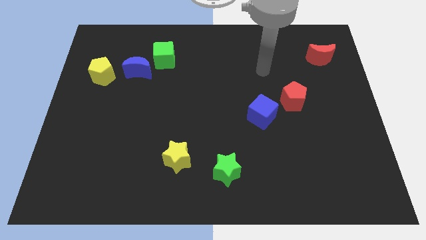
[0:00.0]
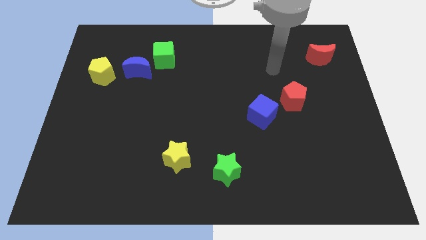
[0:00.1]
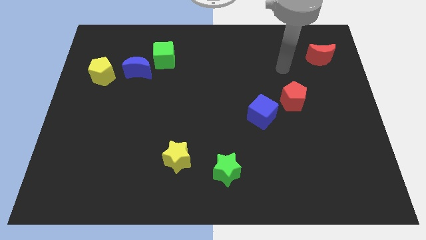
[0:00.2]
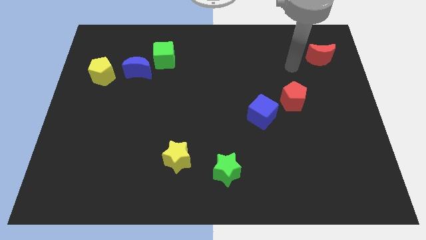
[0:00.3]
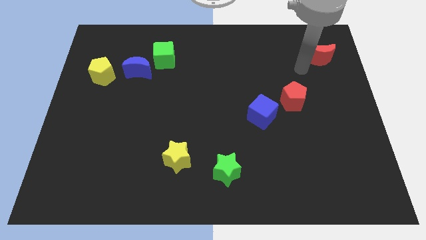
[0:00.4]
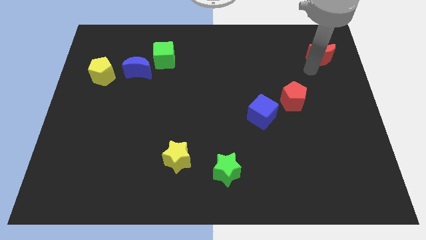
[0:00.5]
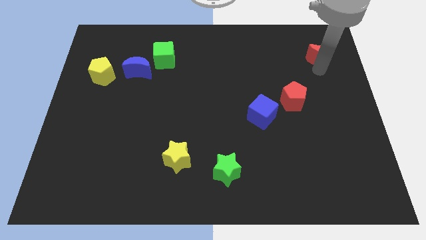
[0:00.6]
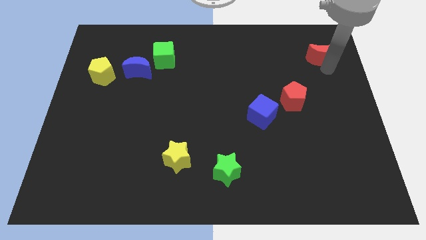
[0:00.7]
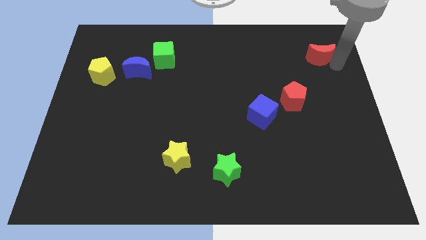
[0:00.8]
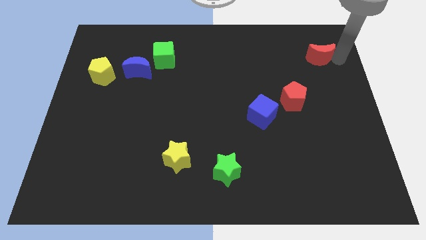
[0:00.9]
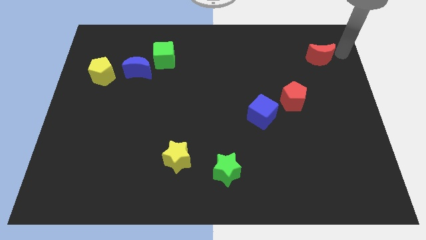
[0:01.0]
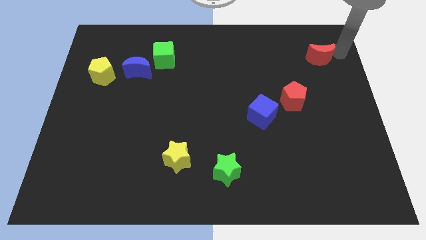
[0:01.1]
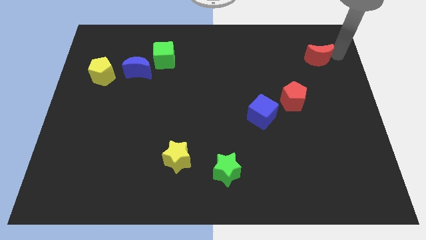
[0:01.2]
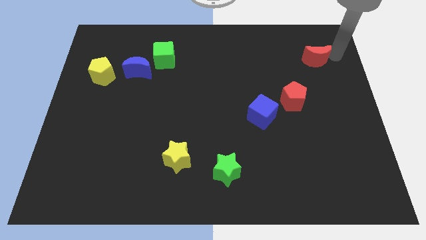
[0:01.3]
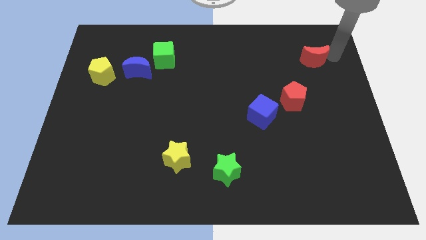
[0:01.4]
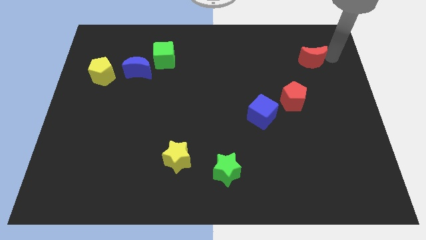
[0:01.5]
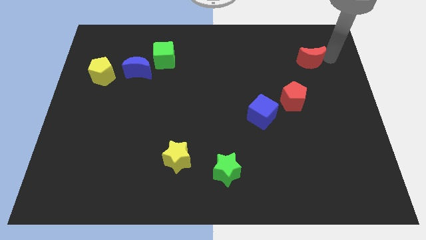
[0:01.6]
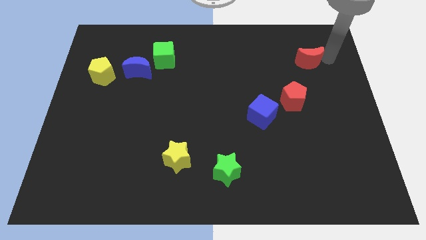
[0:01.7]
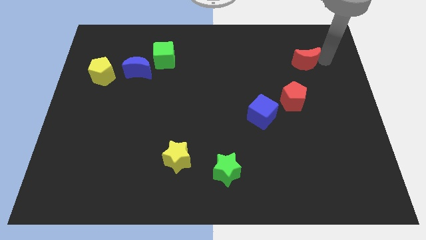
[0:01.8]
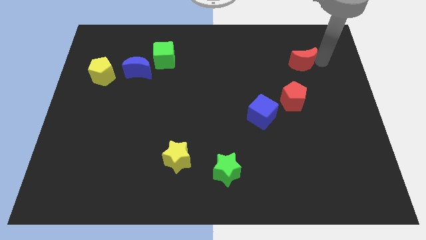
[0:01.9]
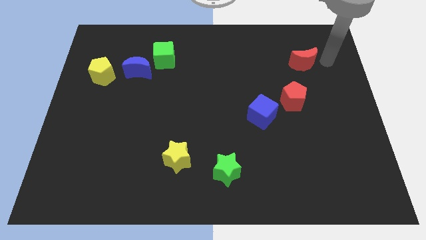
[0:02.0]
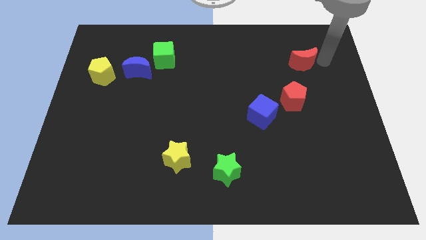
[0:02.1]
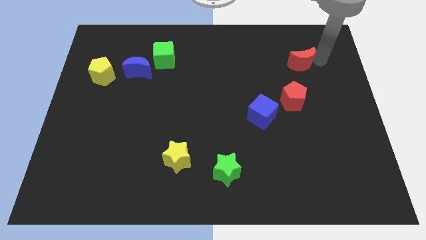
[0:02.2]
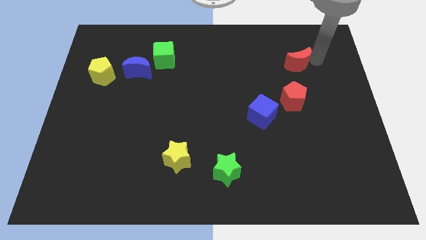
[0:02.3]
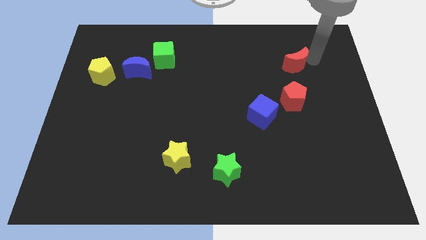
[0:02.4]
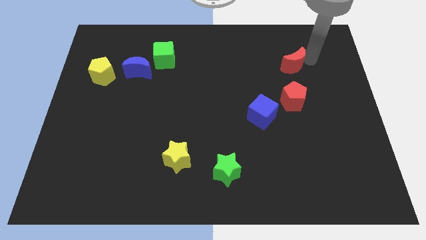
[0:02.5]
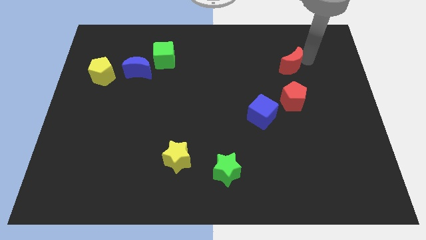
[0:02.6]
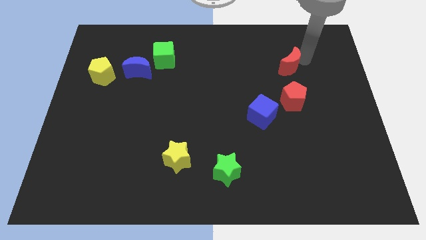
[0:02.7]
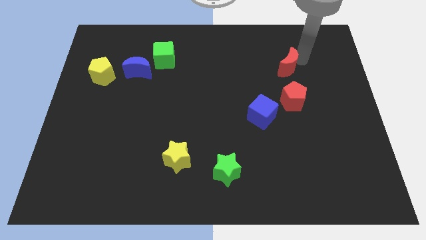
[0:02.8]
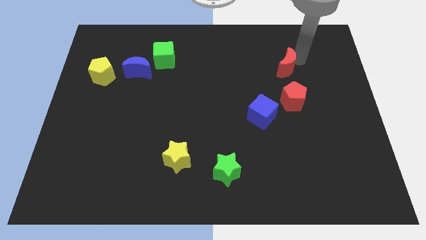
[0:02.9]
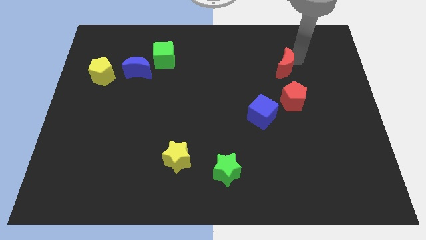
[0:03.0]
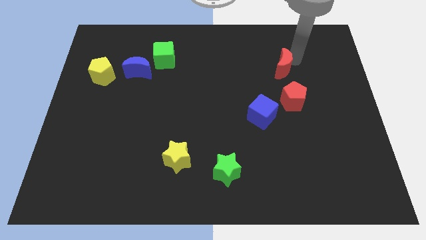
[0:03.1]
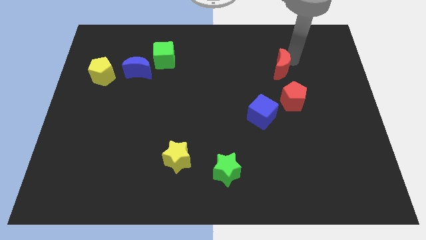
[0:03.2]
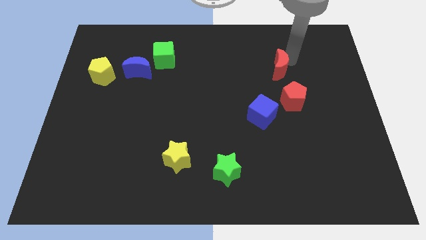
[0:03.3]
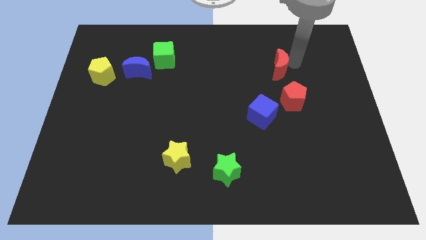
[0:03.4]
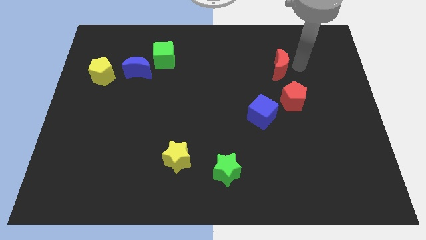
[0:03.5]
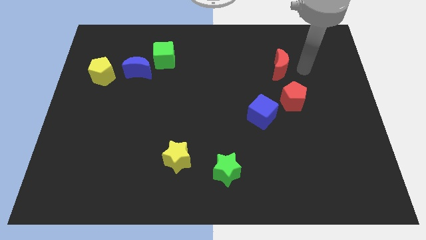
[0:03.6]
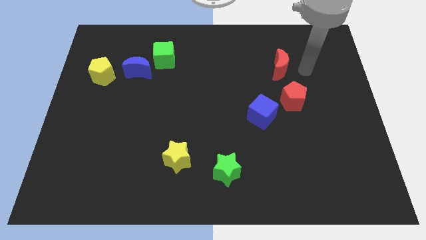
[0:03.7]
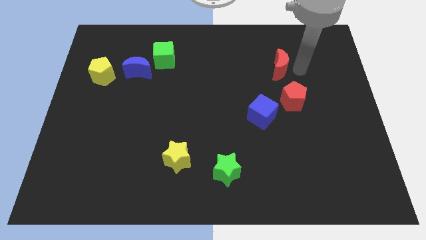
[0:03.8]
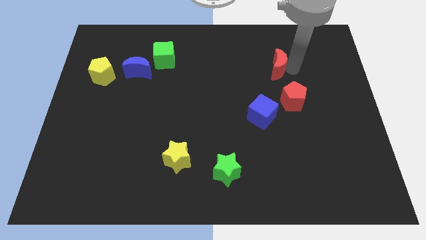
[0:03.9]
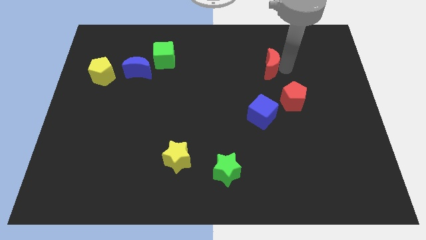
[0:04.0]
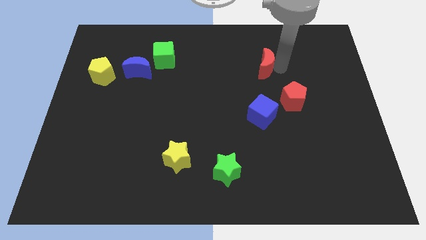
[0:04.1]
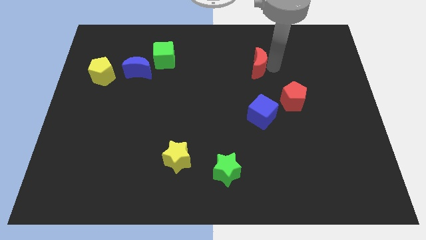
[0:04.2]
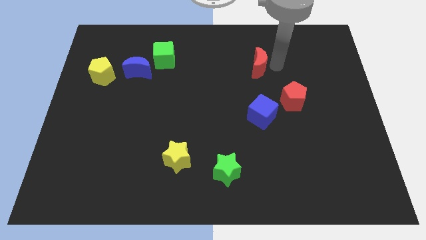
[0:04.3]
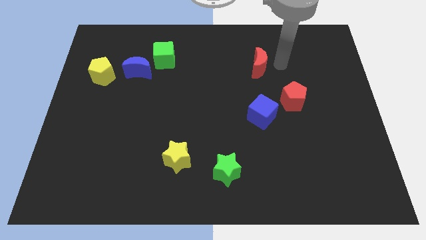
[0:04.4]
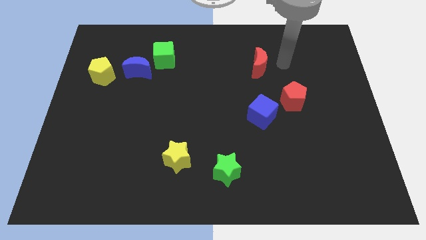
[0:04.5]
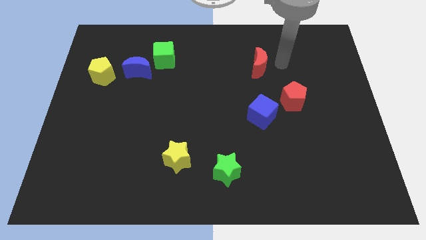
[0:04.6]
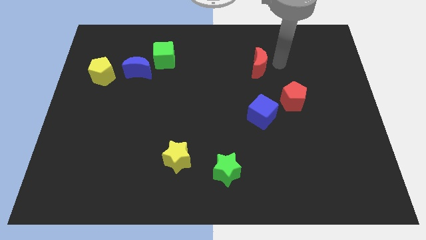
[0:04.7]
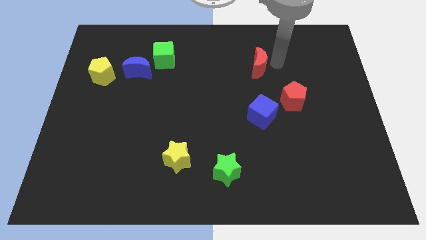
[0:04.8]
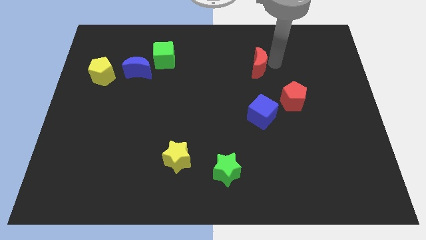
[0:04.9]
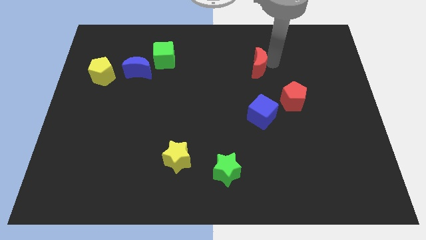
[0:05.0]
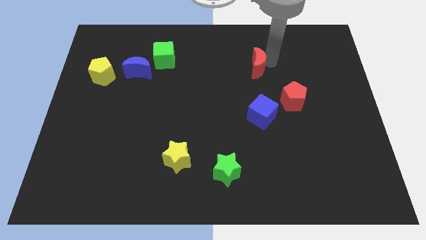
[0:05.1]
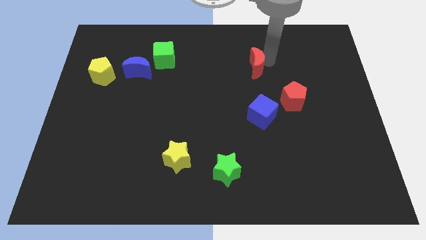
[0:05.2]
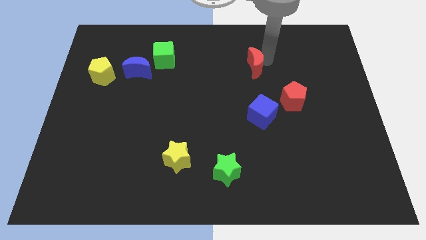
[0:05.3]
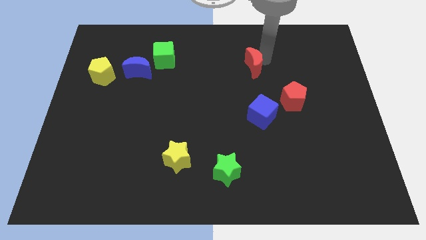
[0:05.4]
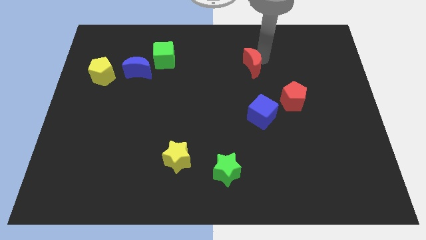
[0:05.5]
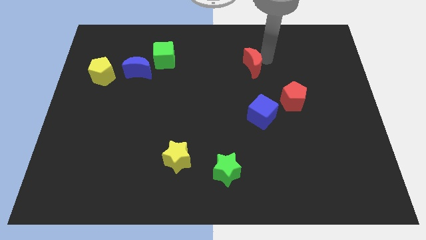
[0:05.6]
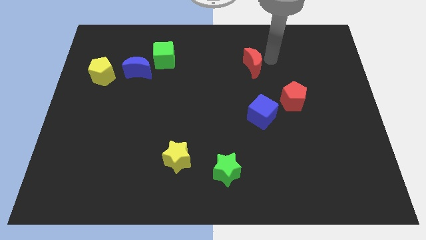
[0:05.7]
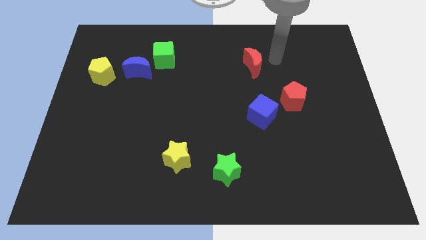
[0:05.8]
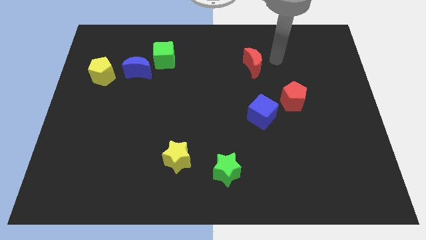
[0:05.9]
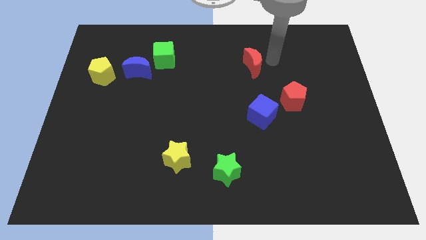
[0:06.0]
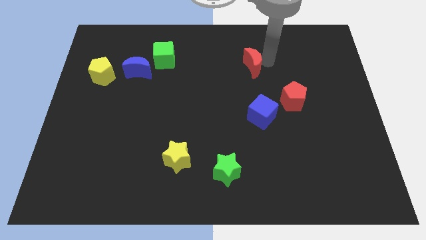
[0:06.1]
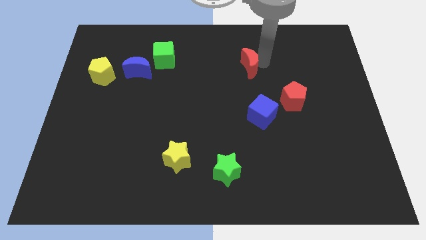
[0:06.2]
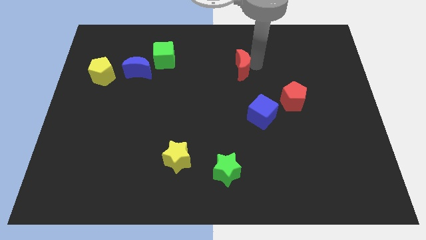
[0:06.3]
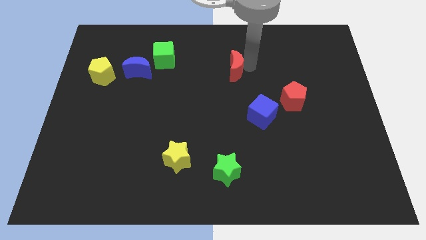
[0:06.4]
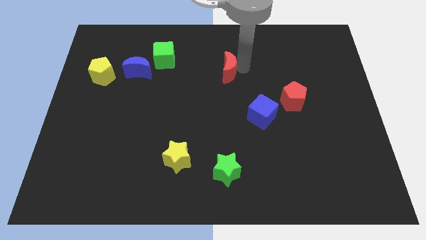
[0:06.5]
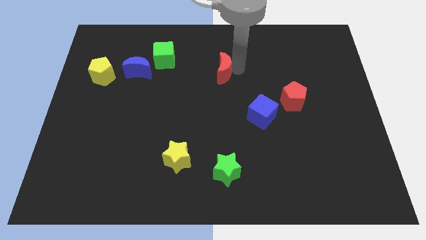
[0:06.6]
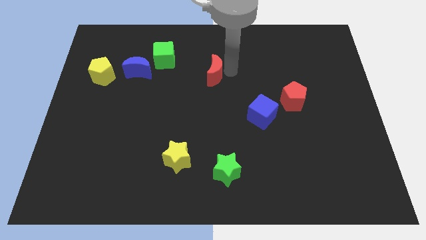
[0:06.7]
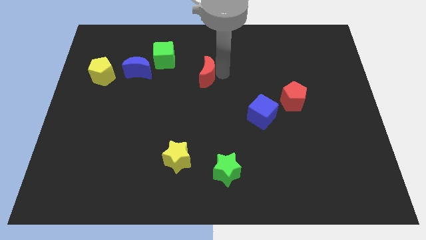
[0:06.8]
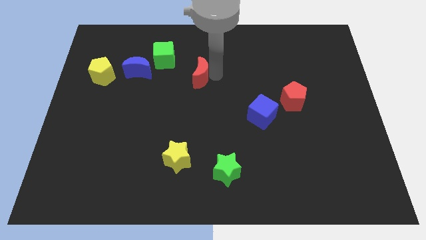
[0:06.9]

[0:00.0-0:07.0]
slide the red moon to the right side of the blue moon
